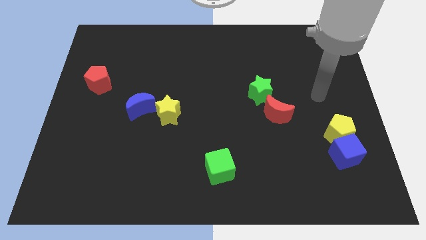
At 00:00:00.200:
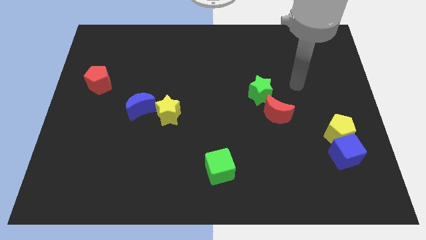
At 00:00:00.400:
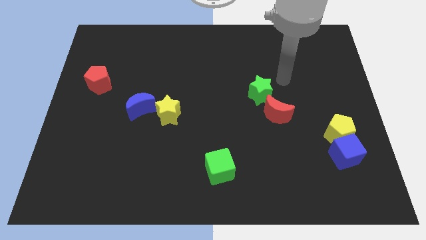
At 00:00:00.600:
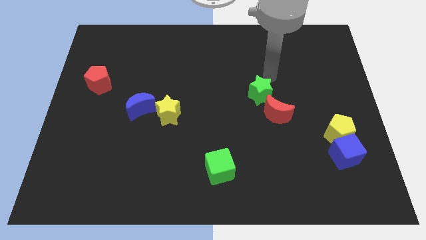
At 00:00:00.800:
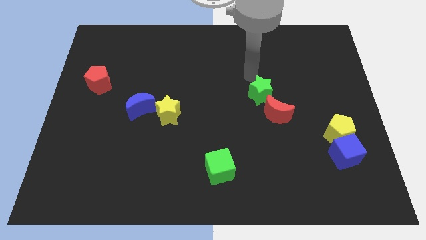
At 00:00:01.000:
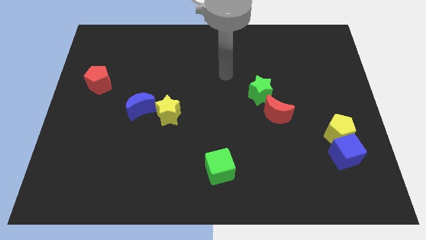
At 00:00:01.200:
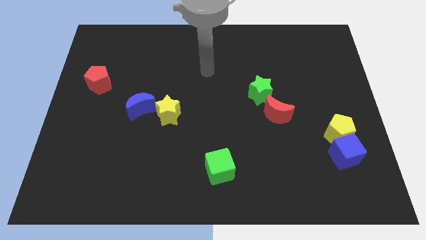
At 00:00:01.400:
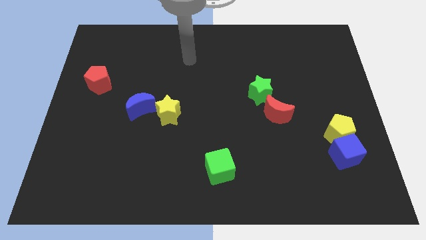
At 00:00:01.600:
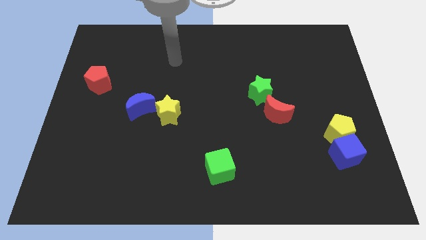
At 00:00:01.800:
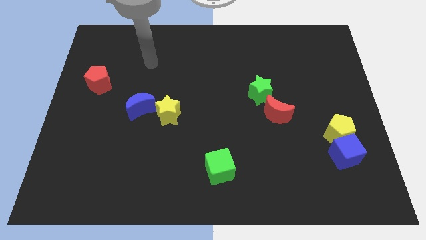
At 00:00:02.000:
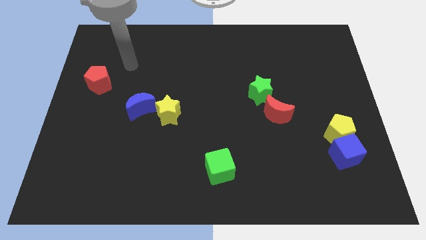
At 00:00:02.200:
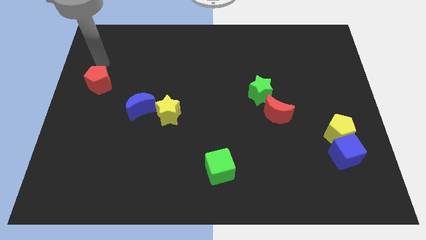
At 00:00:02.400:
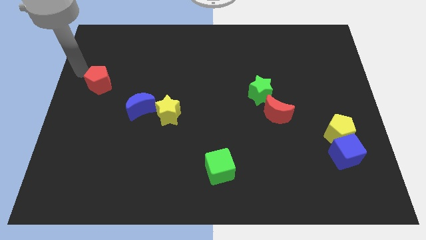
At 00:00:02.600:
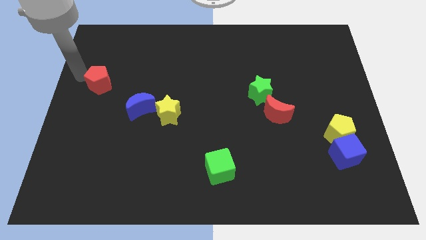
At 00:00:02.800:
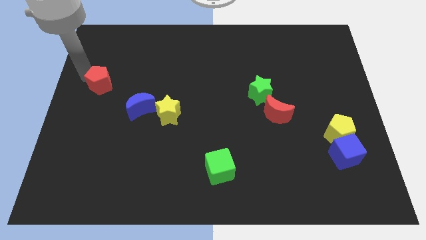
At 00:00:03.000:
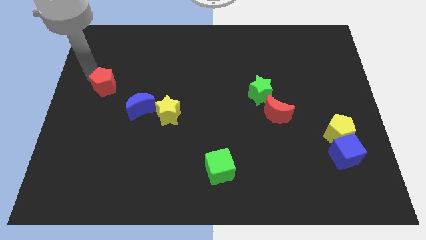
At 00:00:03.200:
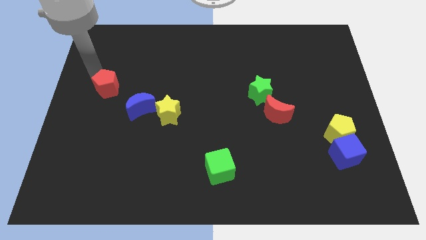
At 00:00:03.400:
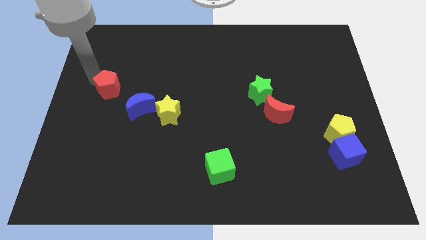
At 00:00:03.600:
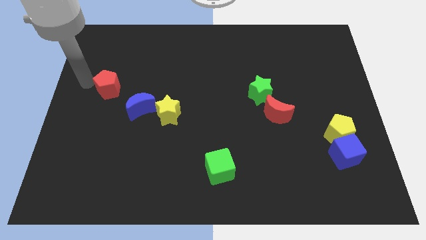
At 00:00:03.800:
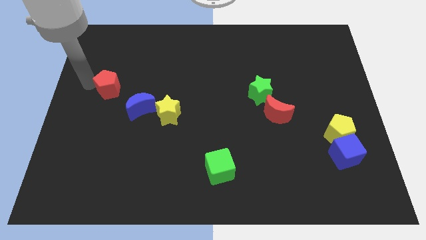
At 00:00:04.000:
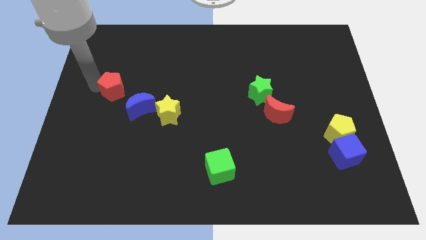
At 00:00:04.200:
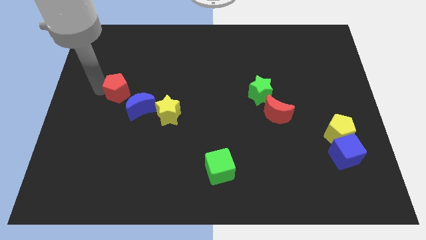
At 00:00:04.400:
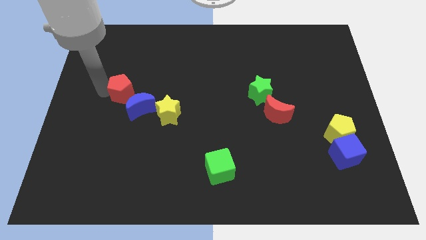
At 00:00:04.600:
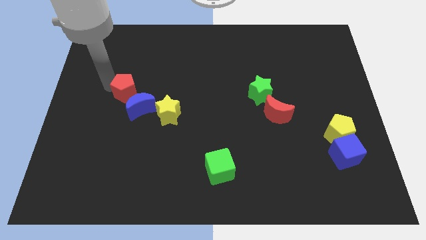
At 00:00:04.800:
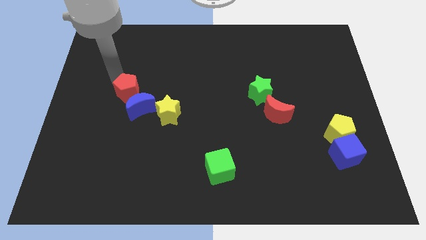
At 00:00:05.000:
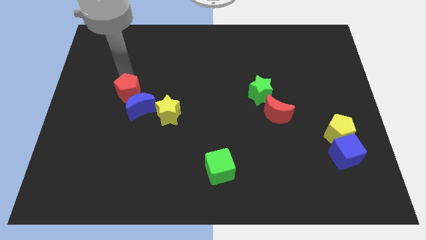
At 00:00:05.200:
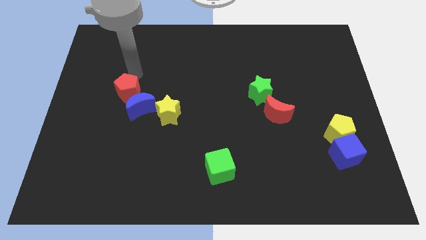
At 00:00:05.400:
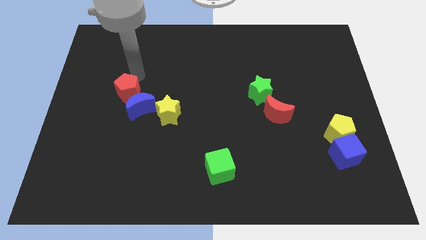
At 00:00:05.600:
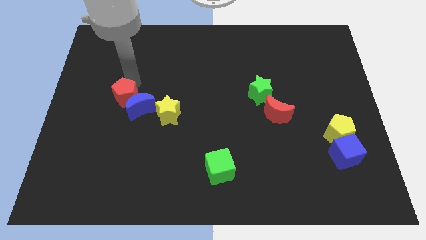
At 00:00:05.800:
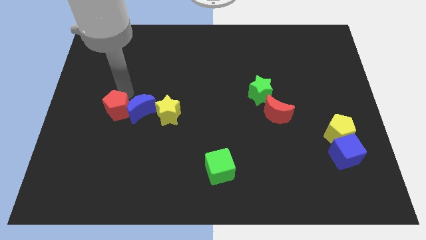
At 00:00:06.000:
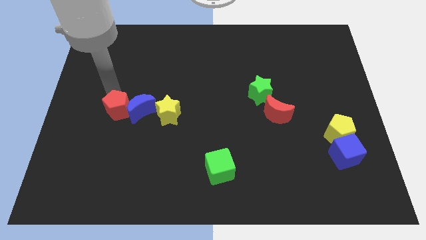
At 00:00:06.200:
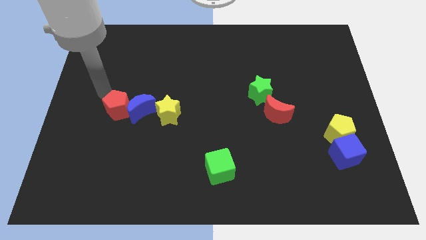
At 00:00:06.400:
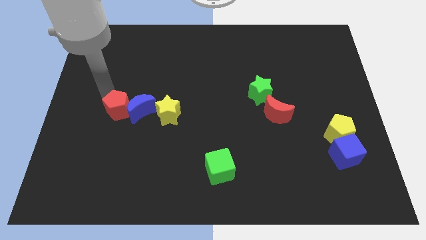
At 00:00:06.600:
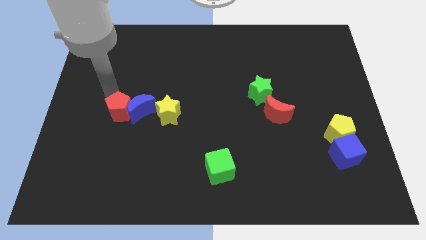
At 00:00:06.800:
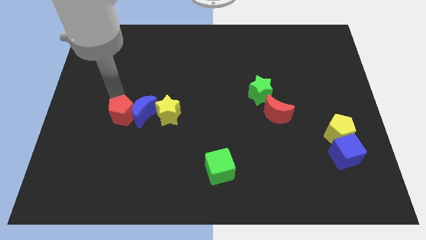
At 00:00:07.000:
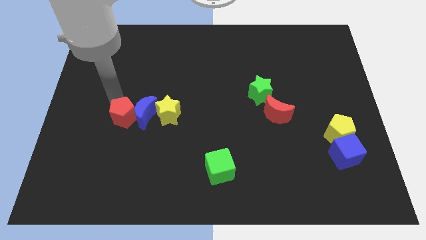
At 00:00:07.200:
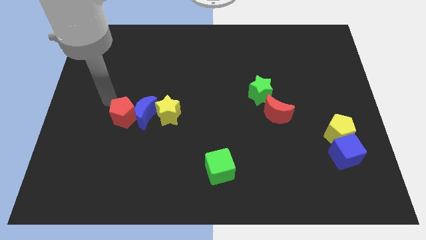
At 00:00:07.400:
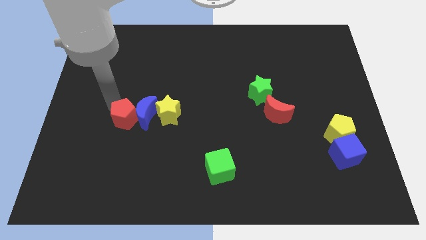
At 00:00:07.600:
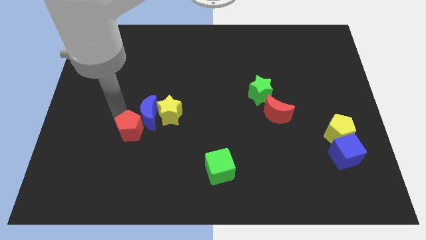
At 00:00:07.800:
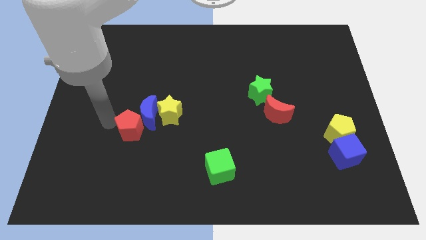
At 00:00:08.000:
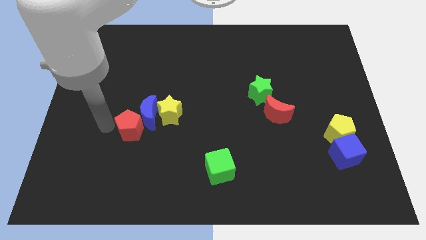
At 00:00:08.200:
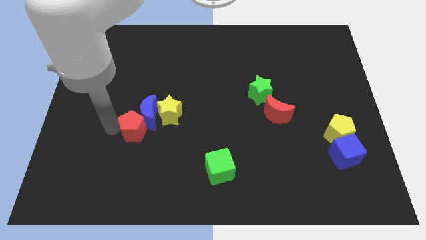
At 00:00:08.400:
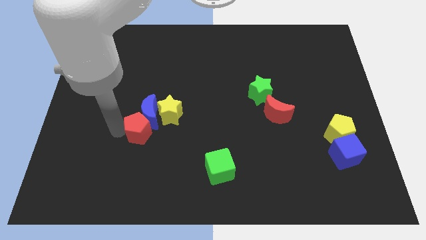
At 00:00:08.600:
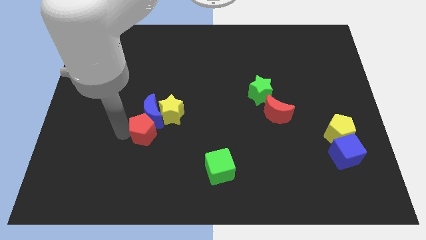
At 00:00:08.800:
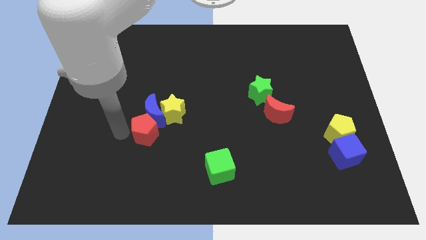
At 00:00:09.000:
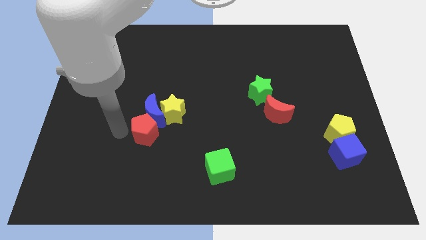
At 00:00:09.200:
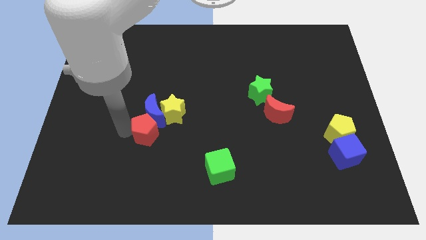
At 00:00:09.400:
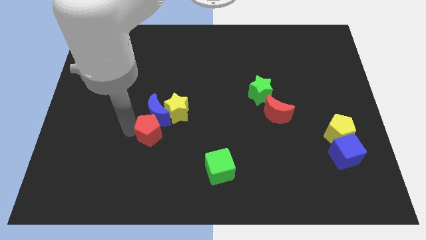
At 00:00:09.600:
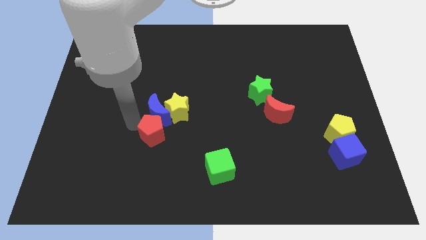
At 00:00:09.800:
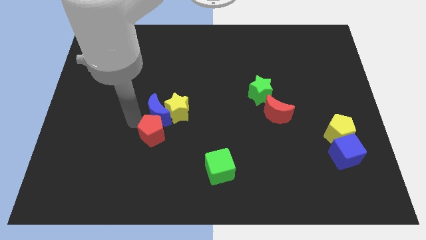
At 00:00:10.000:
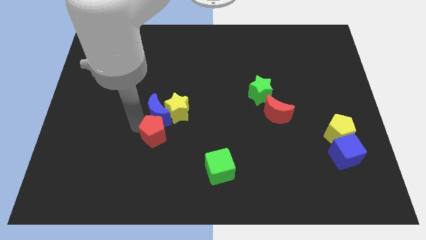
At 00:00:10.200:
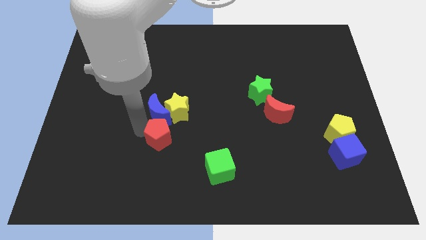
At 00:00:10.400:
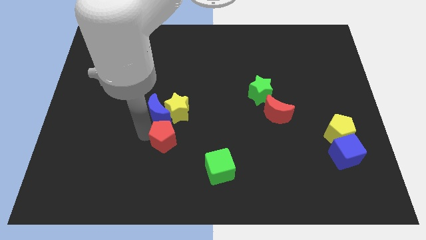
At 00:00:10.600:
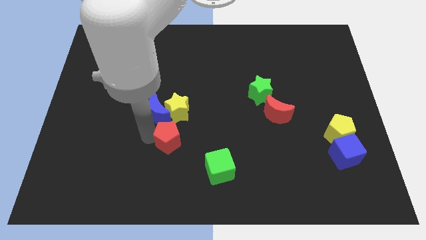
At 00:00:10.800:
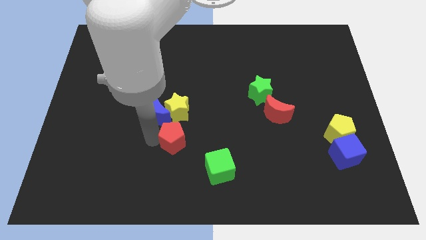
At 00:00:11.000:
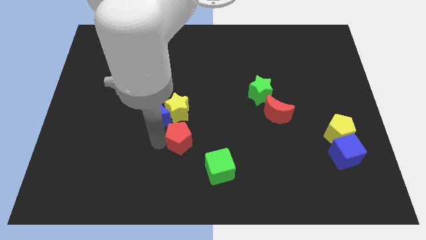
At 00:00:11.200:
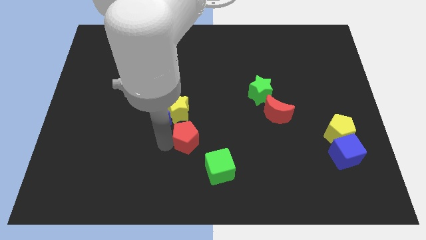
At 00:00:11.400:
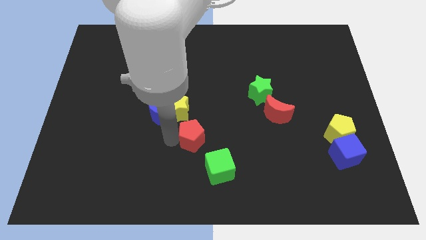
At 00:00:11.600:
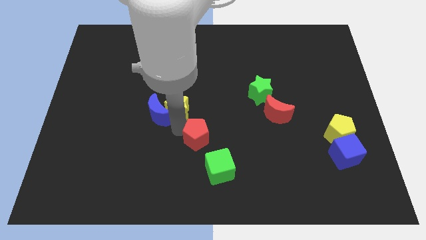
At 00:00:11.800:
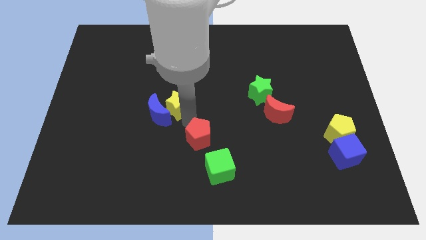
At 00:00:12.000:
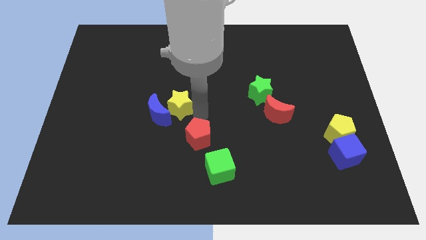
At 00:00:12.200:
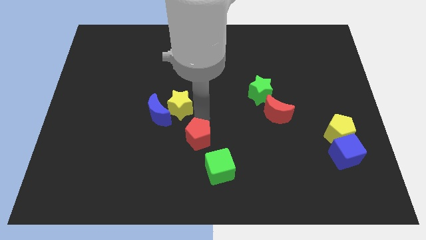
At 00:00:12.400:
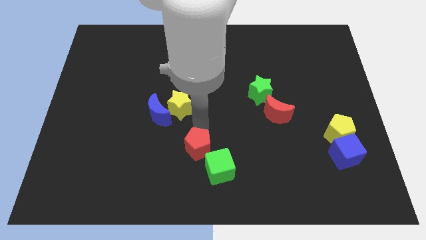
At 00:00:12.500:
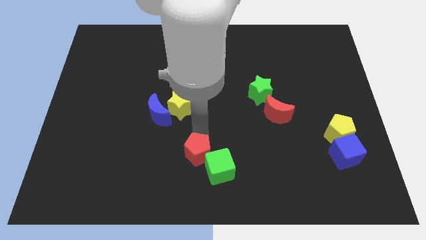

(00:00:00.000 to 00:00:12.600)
move the red pentagon to the green cube
